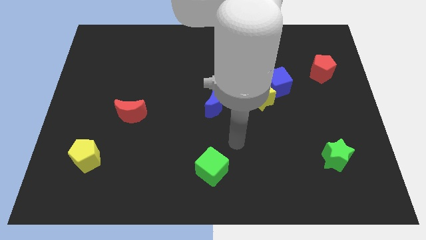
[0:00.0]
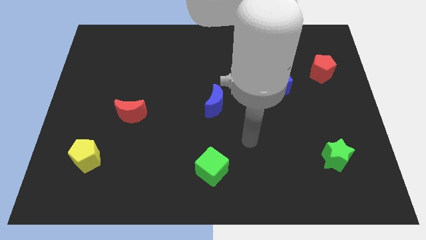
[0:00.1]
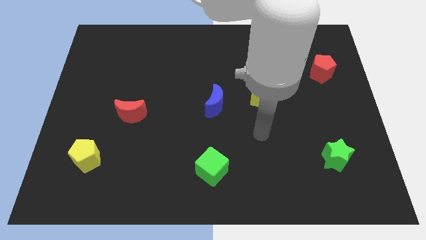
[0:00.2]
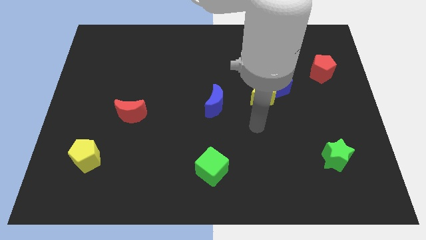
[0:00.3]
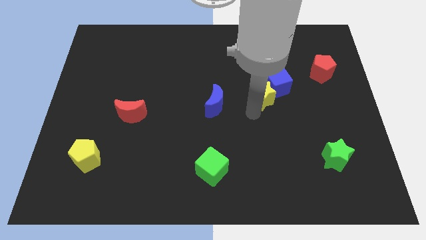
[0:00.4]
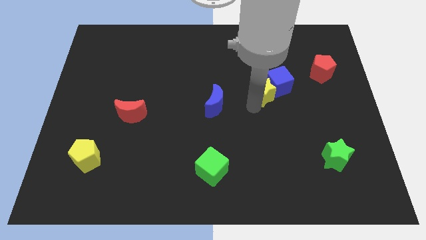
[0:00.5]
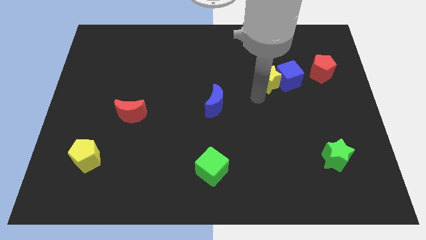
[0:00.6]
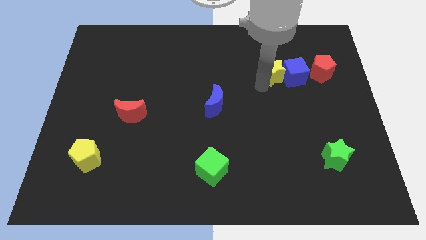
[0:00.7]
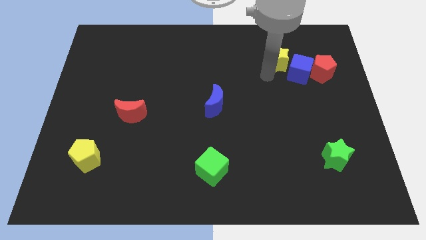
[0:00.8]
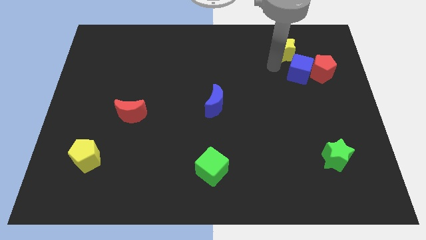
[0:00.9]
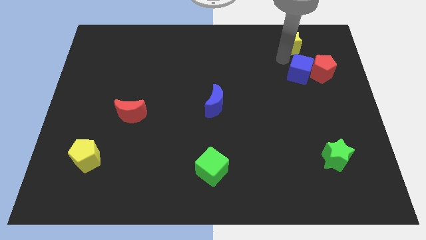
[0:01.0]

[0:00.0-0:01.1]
separate the blue cube from the yellow star

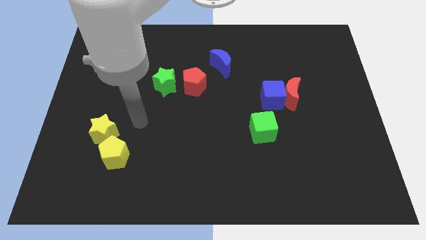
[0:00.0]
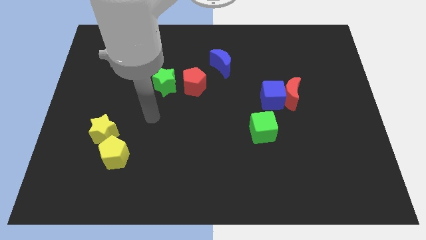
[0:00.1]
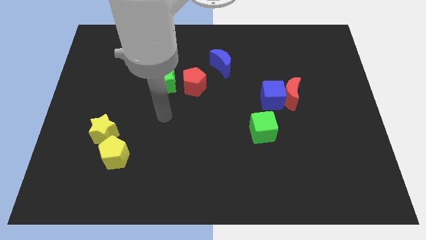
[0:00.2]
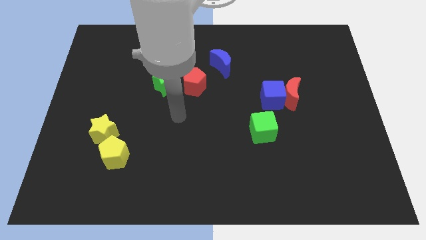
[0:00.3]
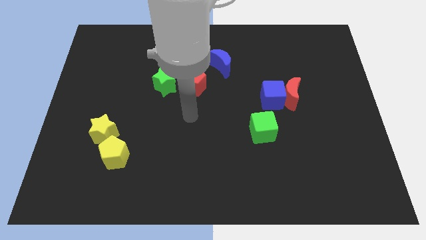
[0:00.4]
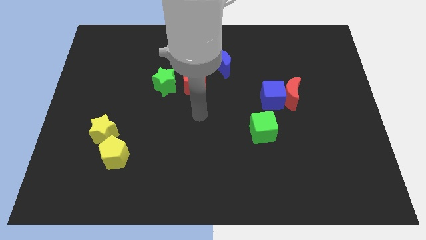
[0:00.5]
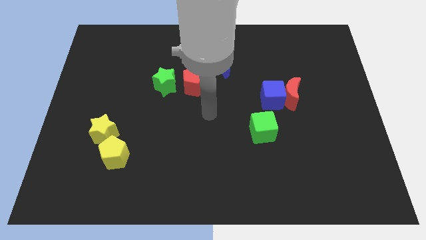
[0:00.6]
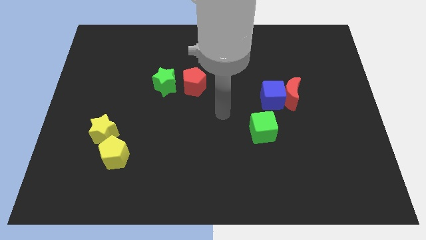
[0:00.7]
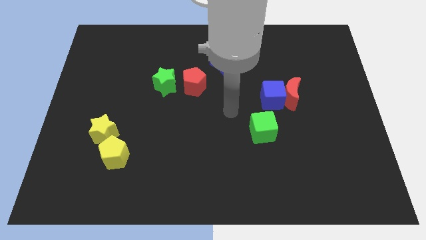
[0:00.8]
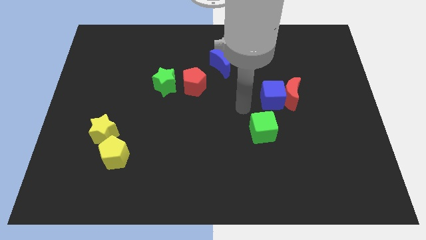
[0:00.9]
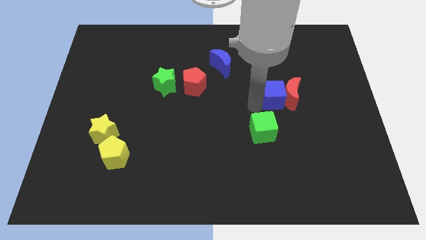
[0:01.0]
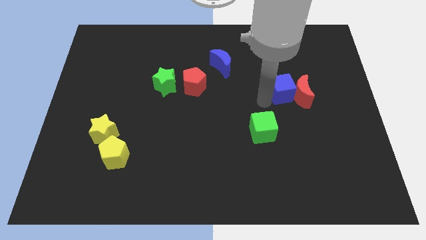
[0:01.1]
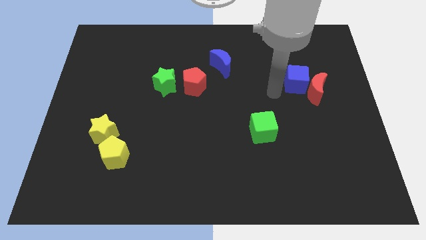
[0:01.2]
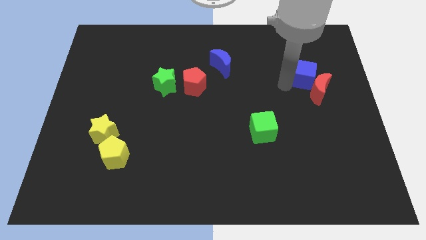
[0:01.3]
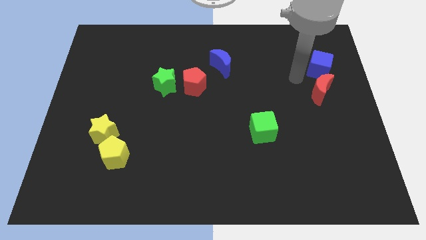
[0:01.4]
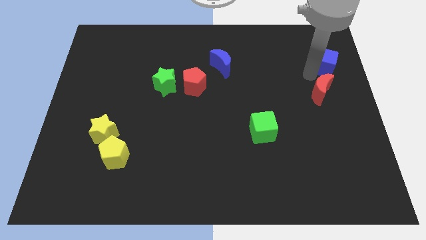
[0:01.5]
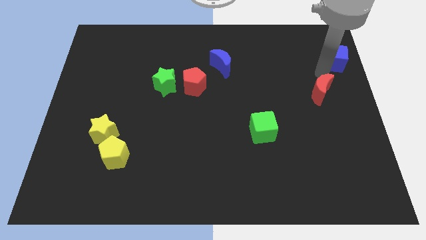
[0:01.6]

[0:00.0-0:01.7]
separate the red moon from the blue cube

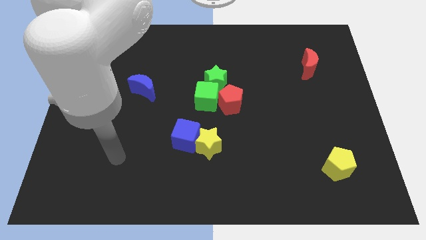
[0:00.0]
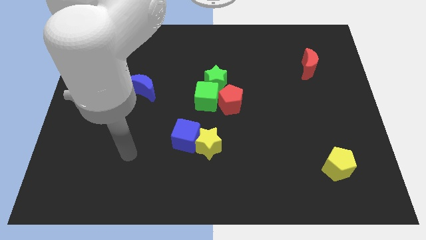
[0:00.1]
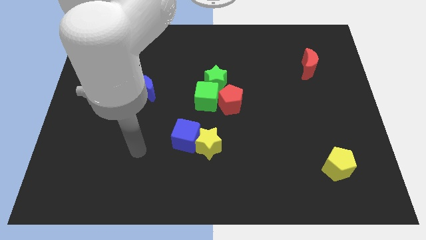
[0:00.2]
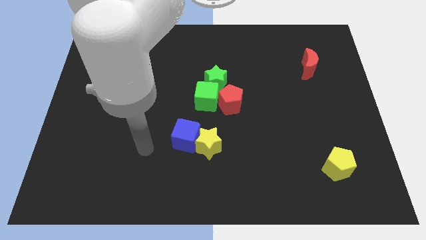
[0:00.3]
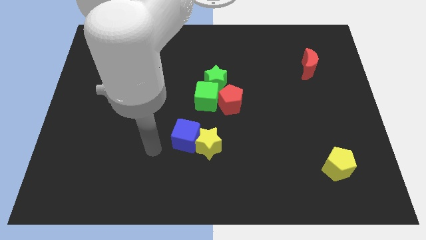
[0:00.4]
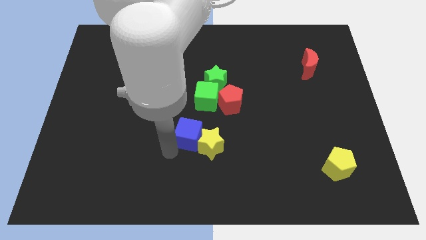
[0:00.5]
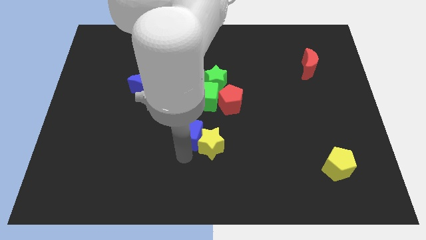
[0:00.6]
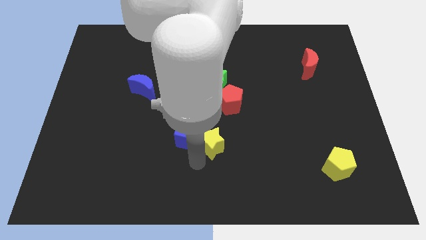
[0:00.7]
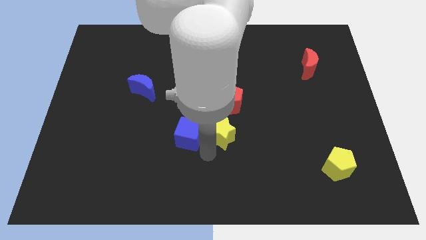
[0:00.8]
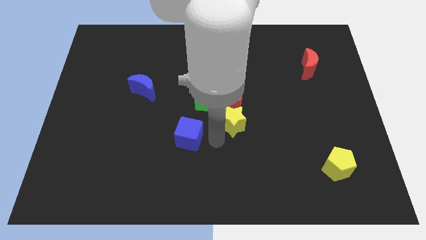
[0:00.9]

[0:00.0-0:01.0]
move the blue cube away from the yellow star

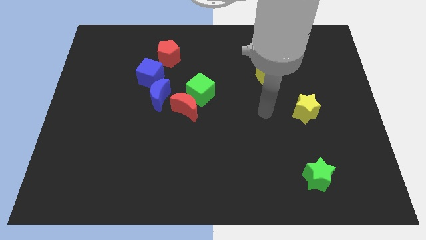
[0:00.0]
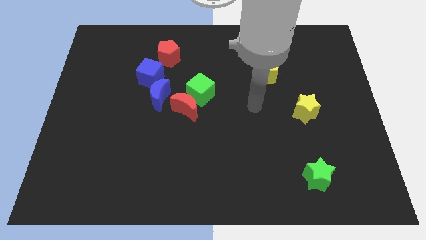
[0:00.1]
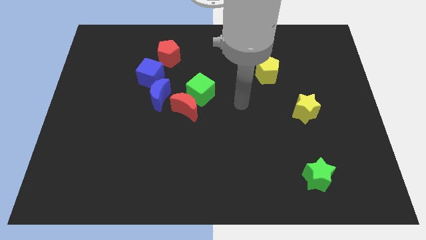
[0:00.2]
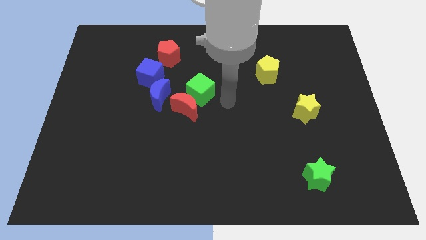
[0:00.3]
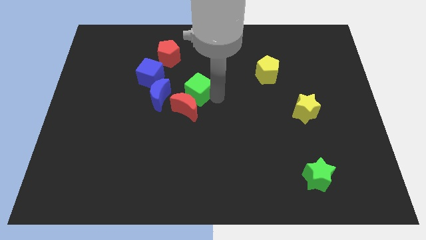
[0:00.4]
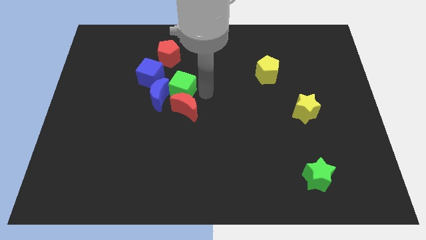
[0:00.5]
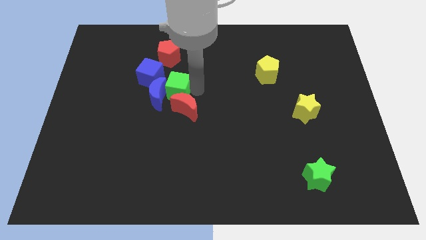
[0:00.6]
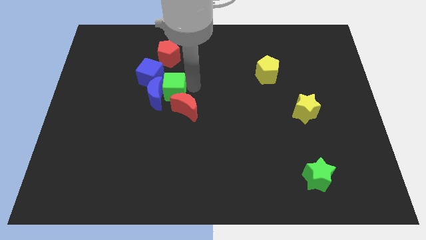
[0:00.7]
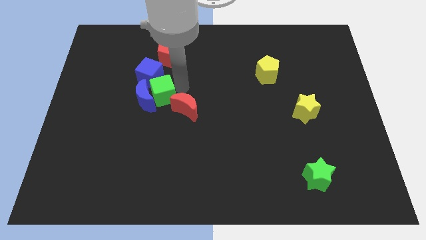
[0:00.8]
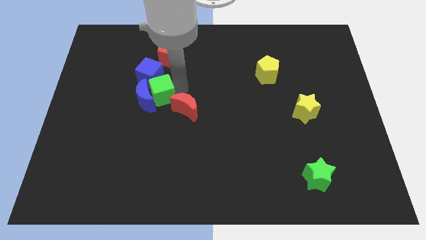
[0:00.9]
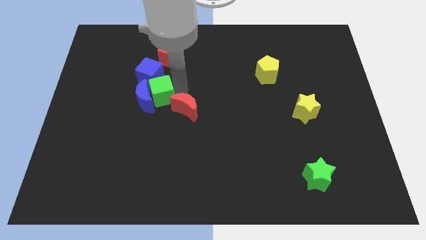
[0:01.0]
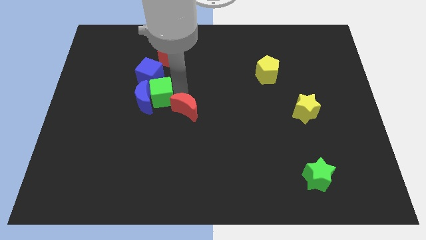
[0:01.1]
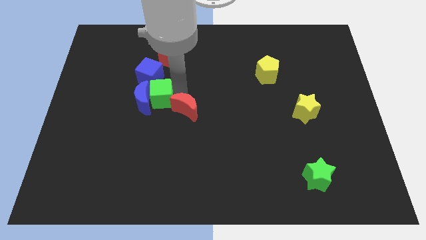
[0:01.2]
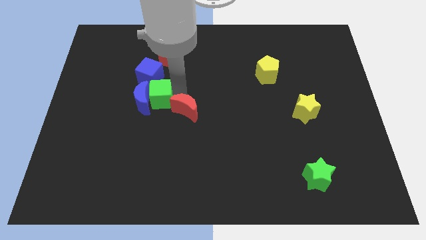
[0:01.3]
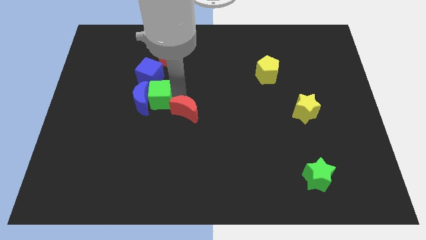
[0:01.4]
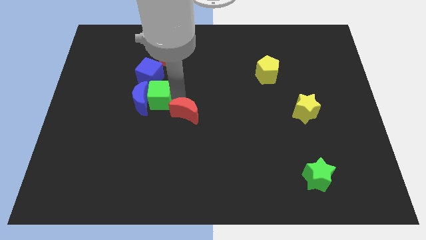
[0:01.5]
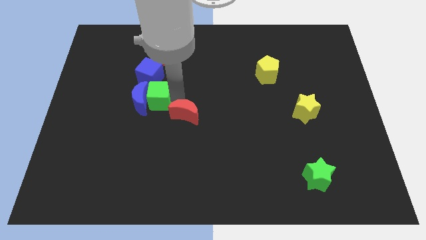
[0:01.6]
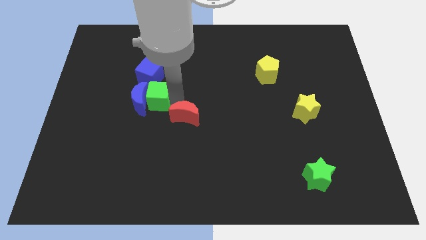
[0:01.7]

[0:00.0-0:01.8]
move the red moon away from the green cube and blue moon

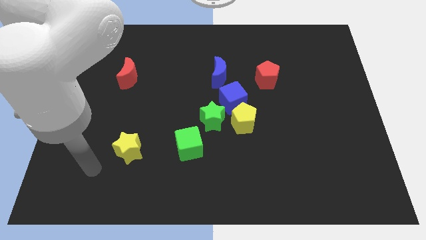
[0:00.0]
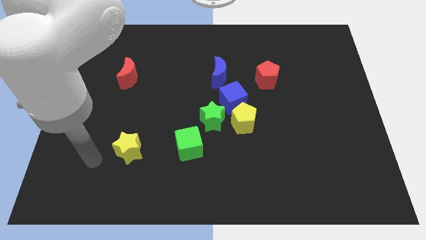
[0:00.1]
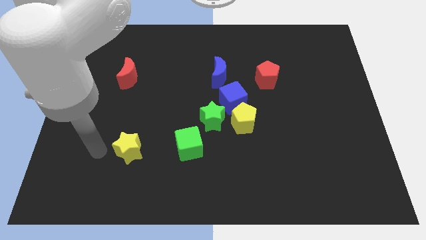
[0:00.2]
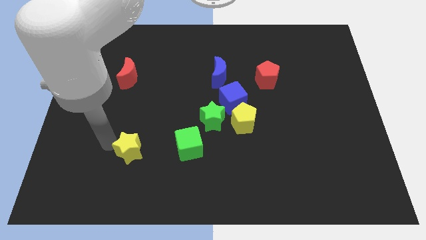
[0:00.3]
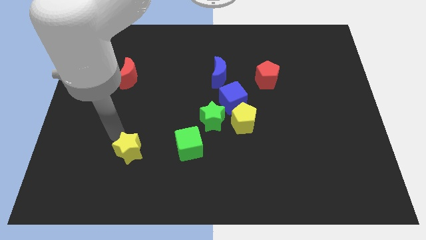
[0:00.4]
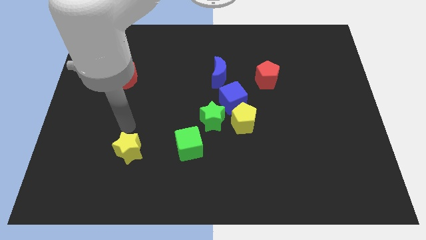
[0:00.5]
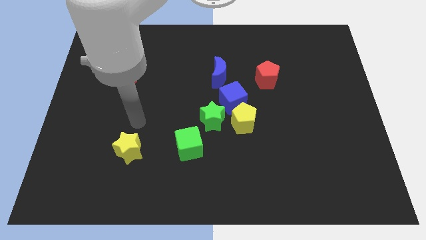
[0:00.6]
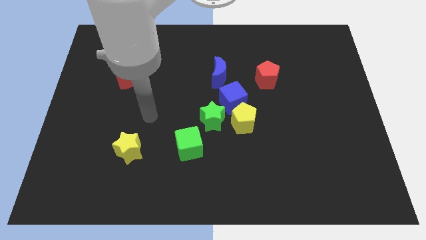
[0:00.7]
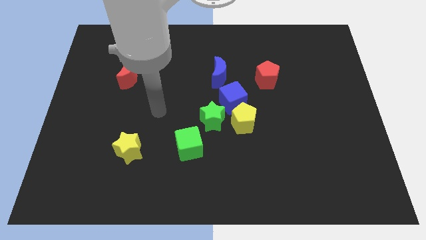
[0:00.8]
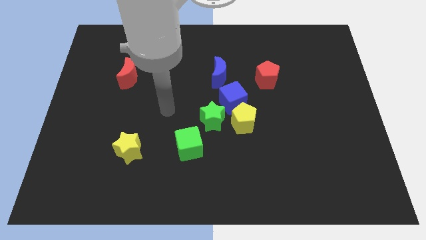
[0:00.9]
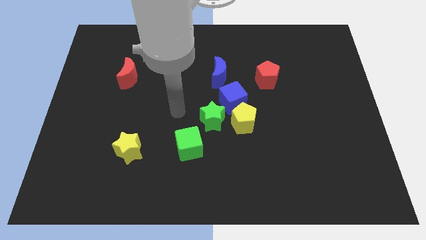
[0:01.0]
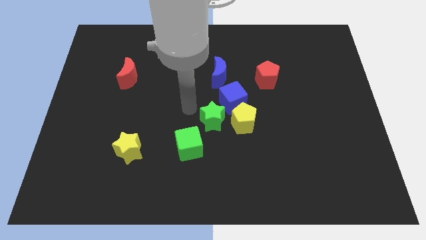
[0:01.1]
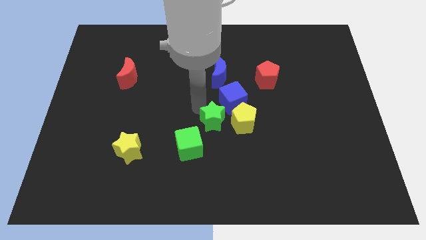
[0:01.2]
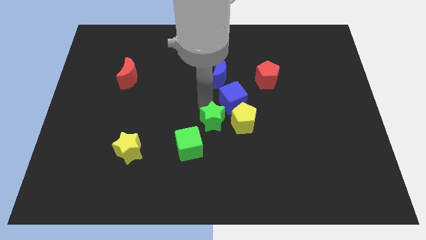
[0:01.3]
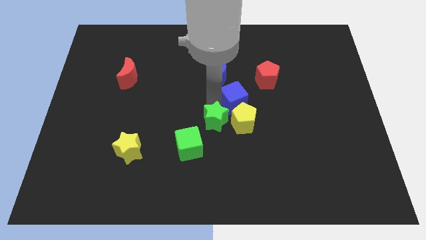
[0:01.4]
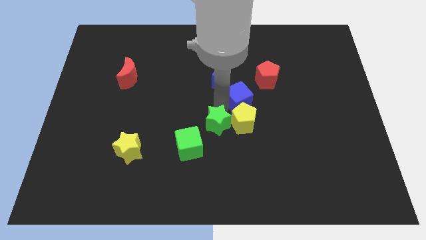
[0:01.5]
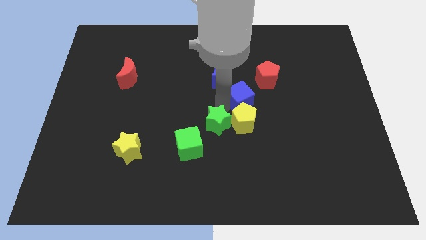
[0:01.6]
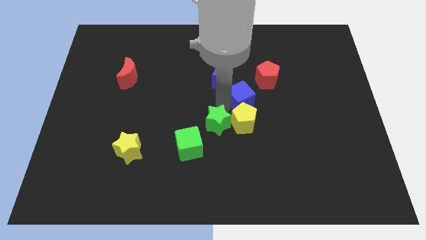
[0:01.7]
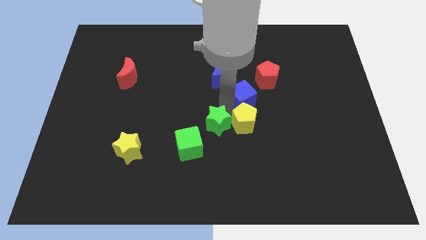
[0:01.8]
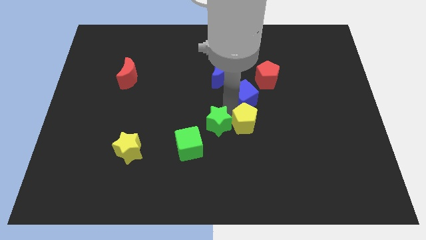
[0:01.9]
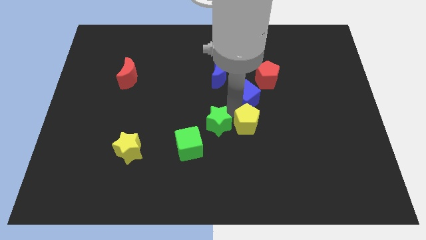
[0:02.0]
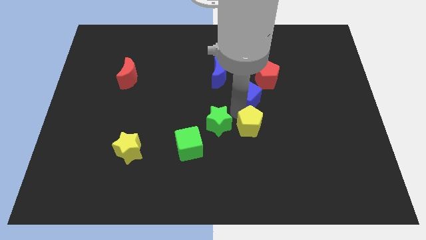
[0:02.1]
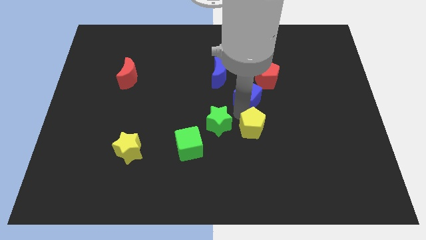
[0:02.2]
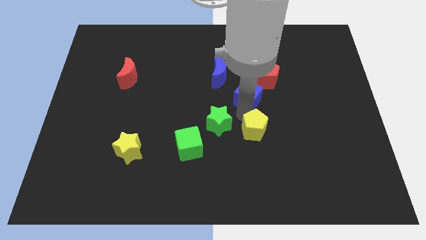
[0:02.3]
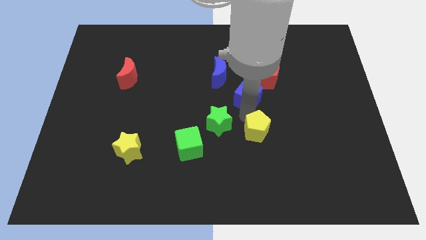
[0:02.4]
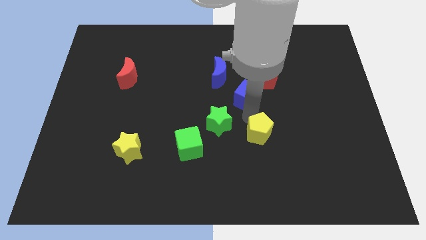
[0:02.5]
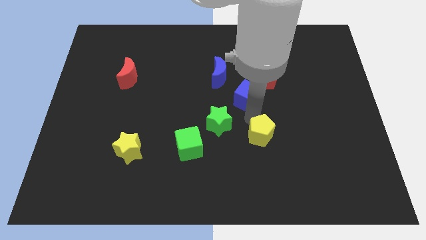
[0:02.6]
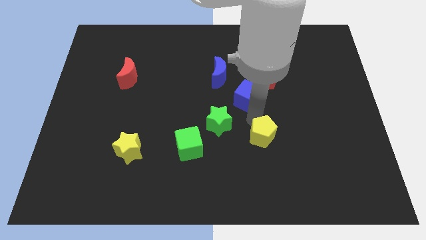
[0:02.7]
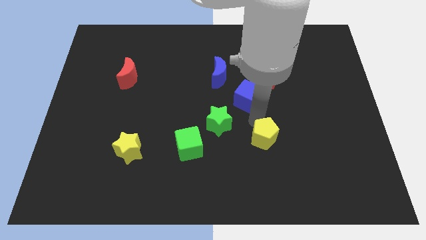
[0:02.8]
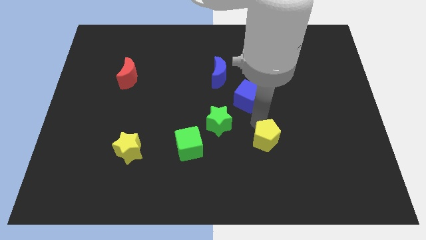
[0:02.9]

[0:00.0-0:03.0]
pull the yellow pentagon apart from the blue cube and green star

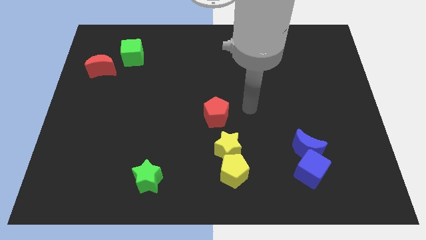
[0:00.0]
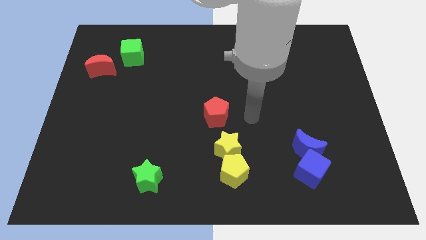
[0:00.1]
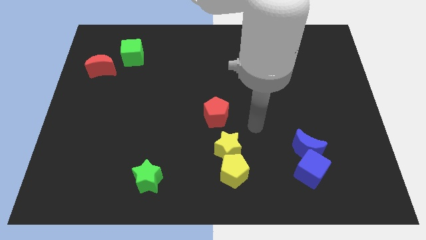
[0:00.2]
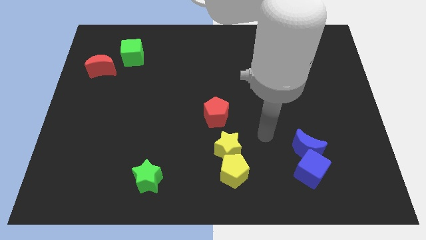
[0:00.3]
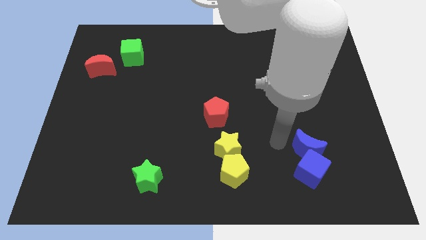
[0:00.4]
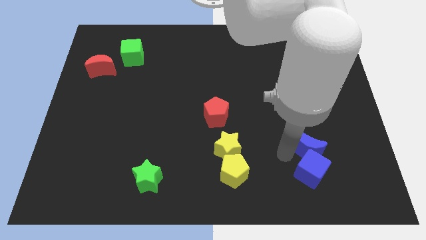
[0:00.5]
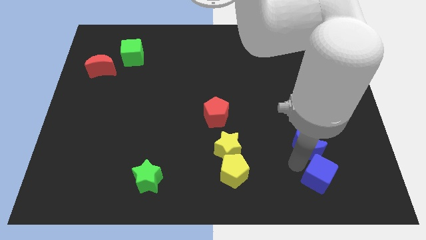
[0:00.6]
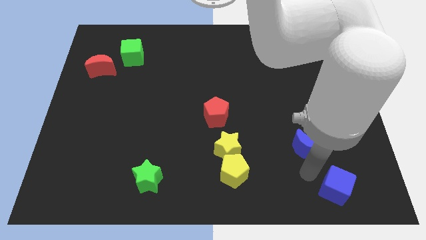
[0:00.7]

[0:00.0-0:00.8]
separate the blue moon from the blue cube
